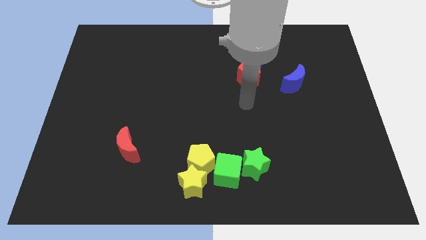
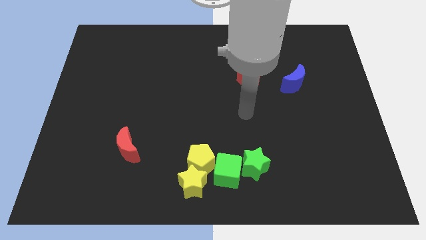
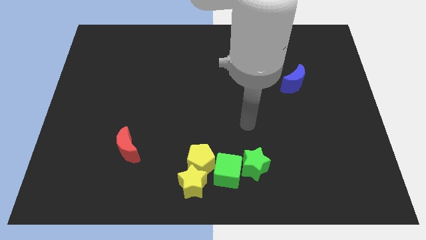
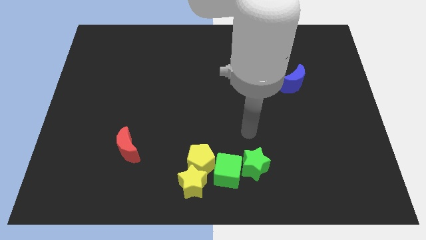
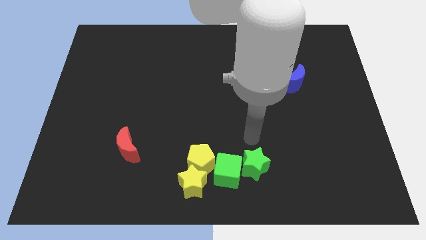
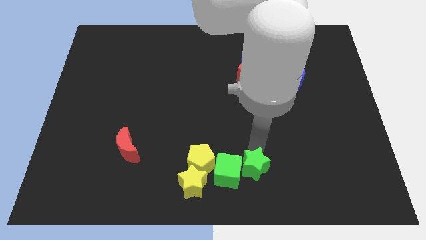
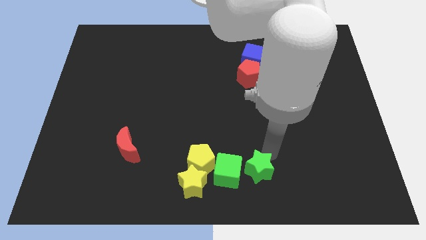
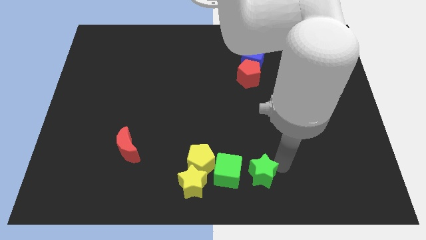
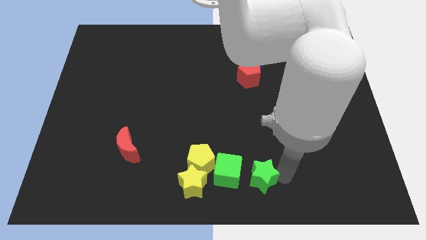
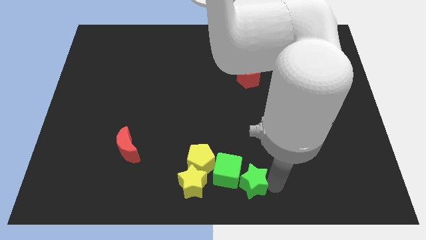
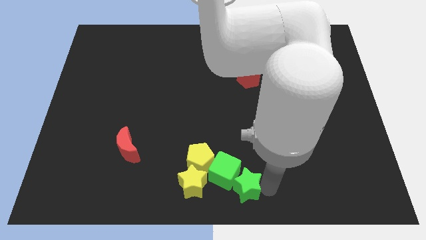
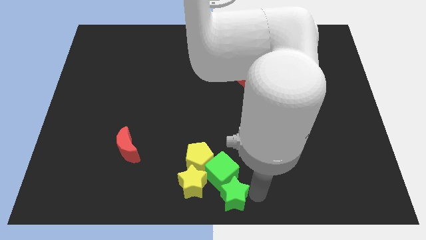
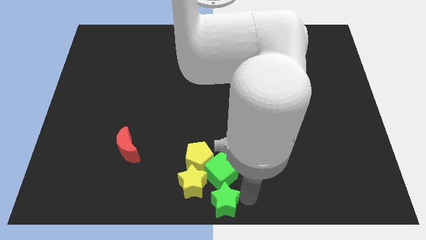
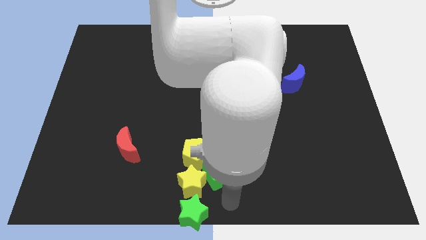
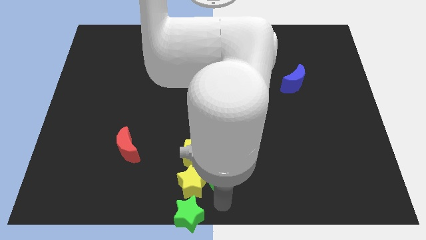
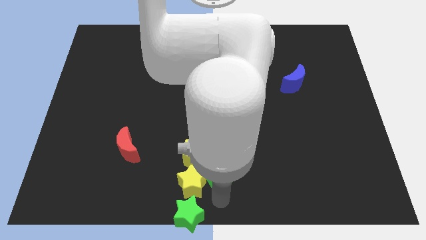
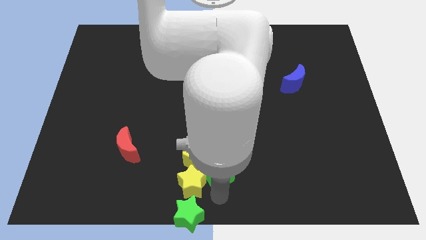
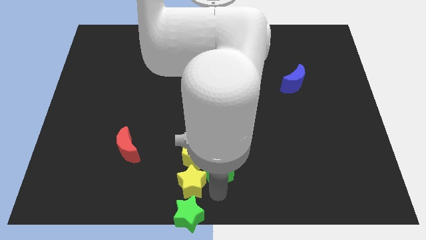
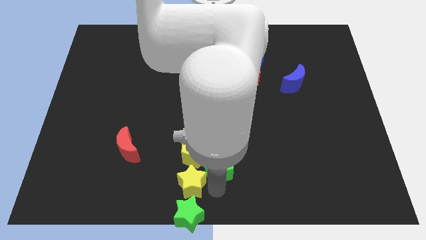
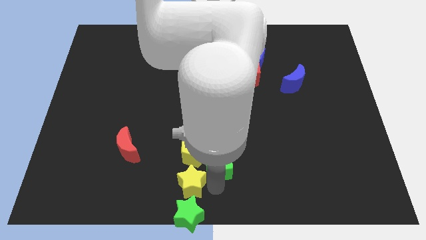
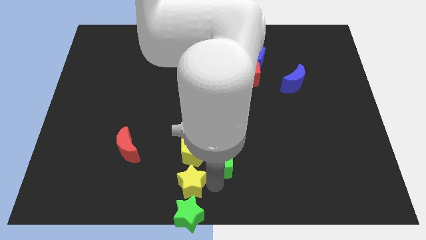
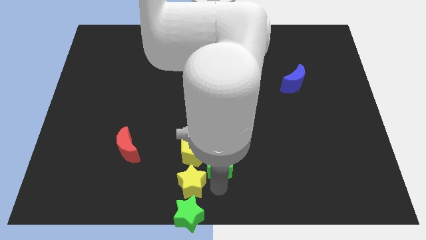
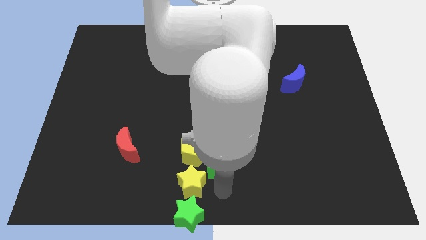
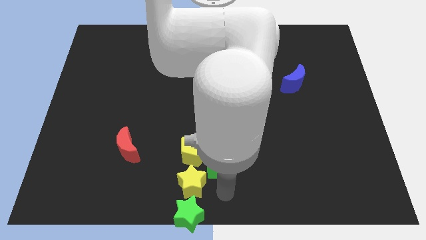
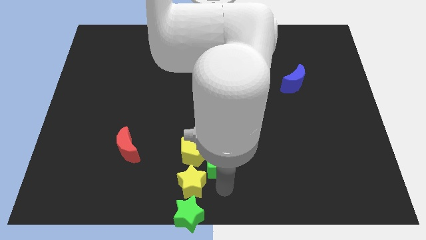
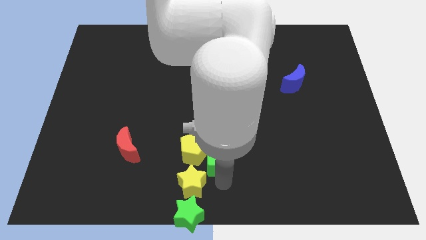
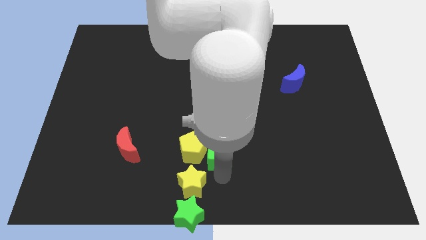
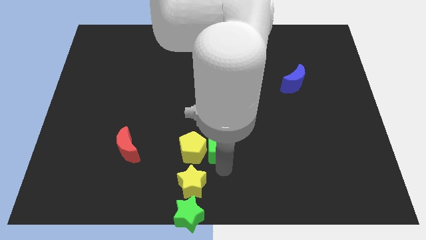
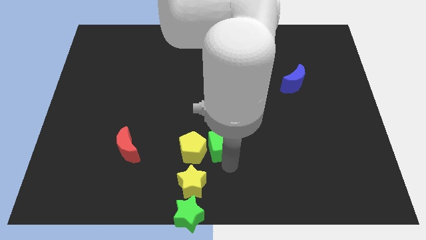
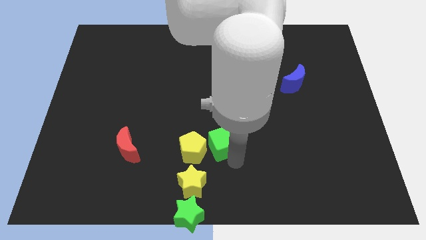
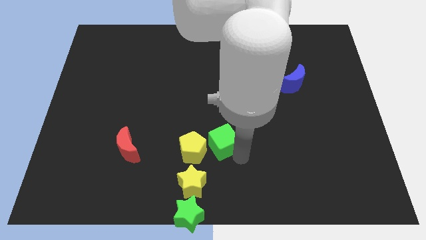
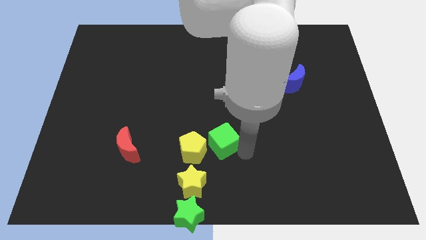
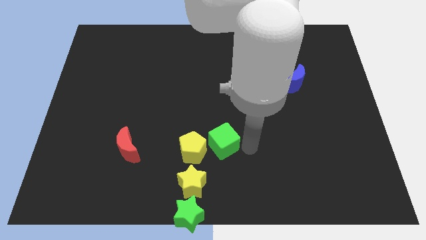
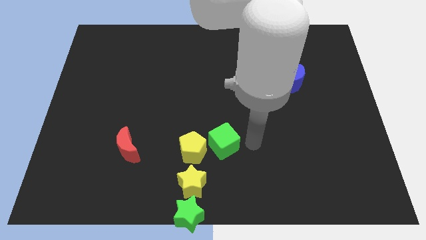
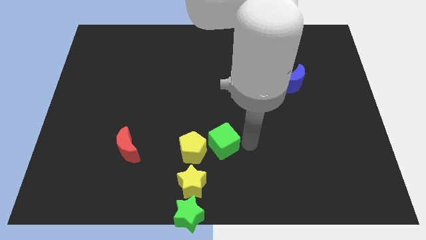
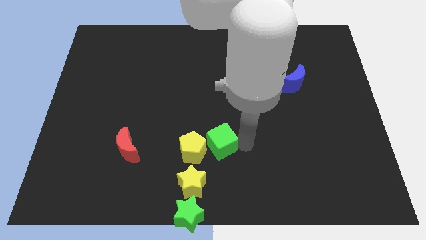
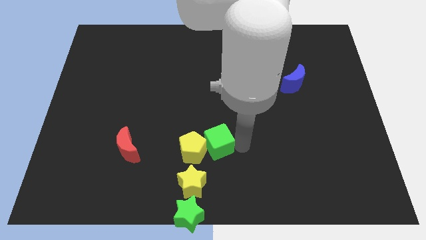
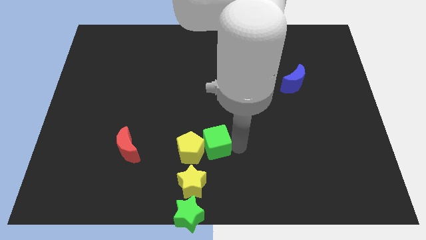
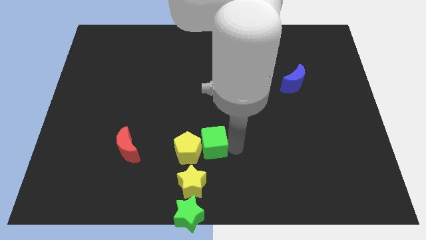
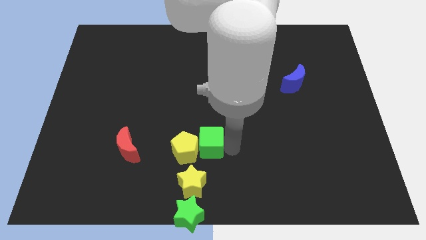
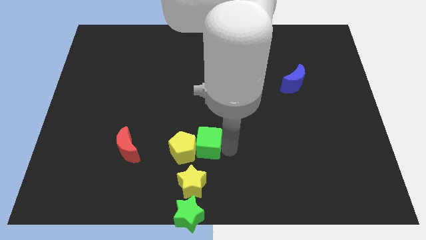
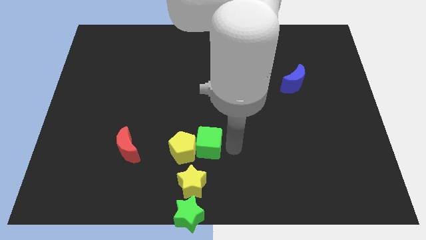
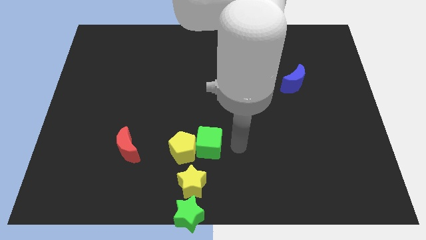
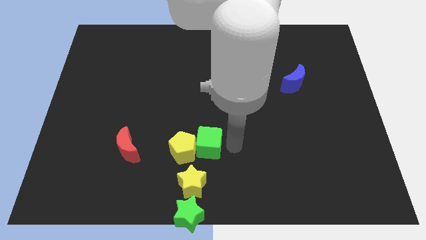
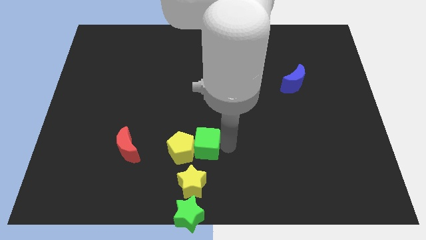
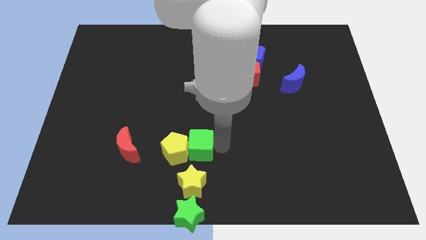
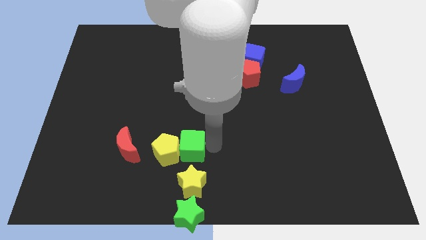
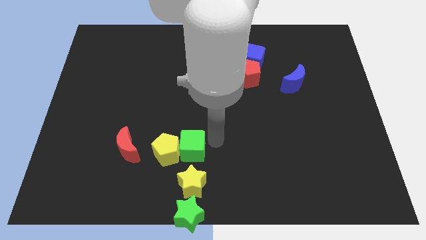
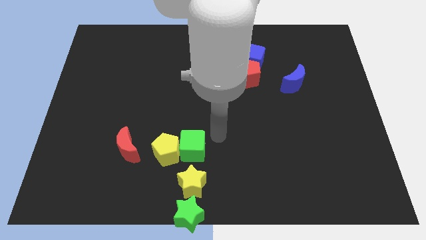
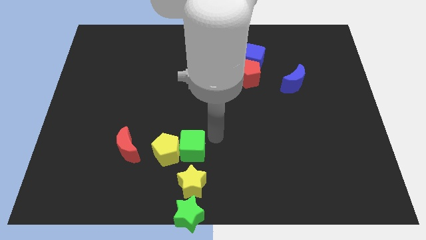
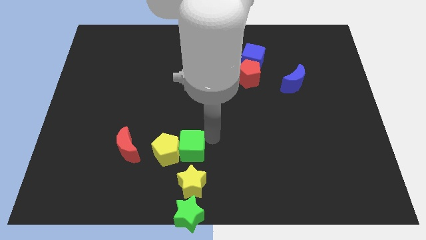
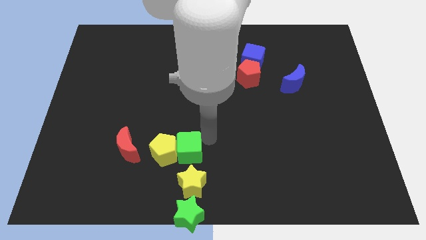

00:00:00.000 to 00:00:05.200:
slide the green cube diagonally up and to the left of the yellow star

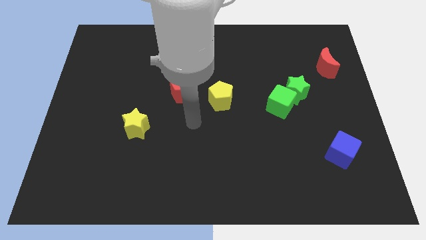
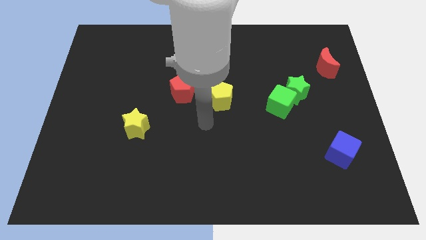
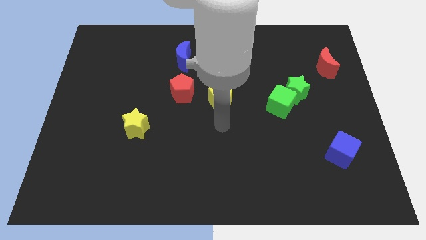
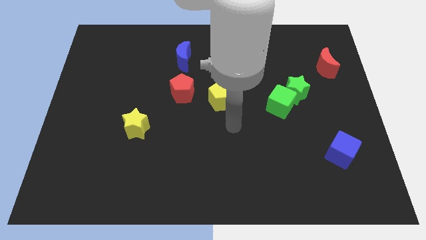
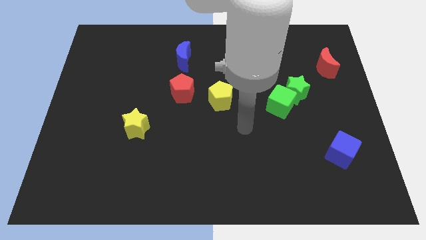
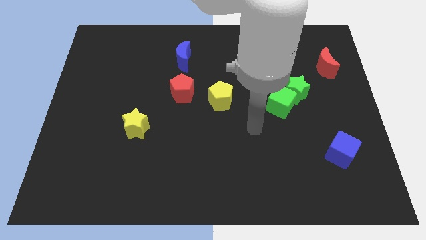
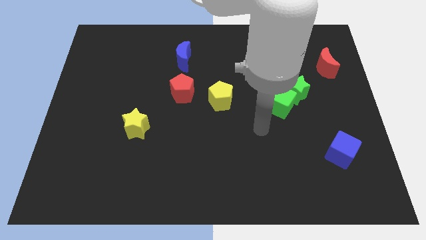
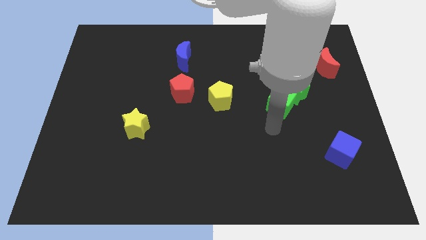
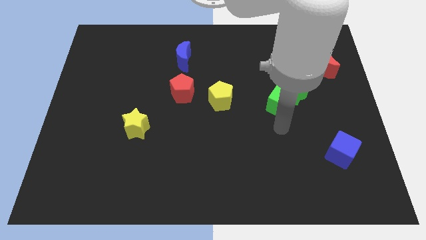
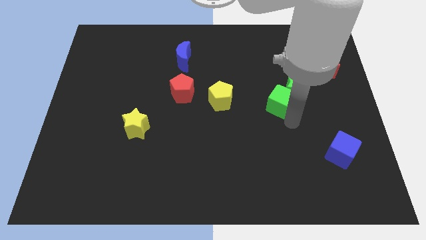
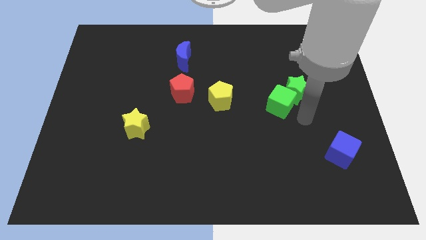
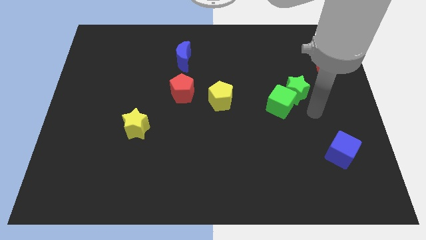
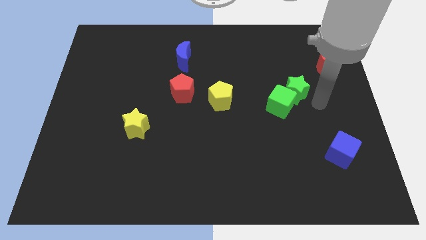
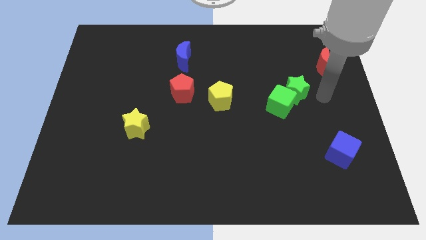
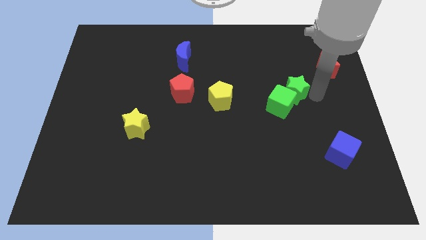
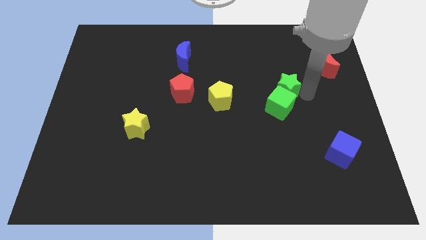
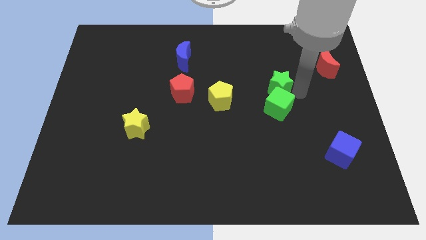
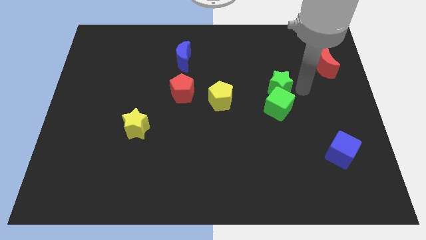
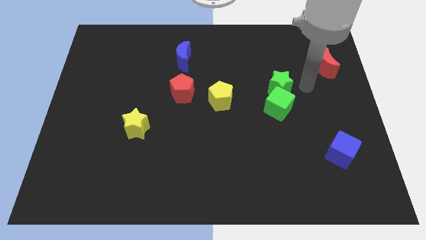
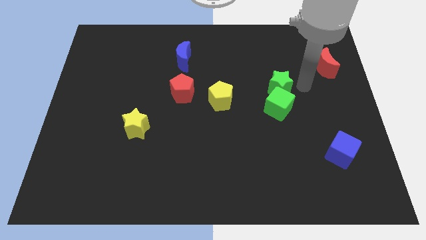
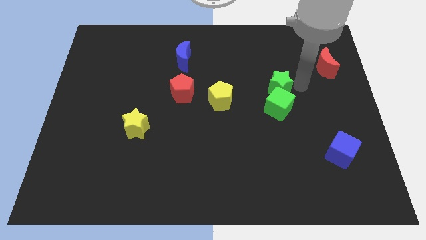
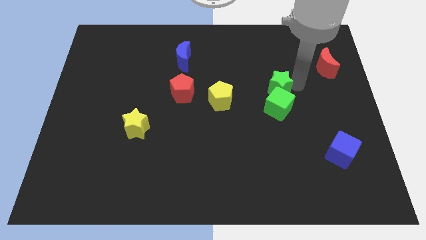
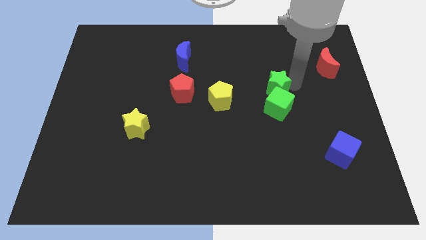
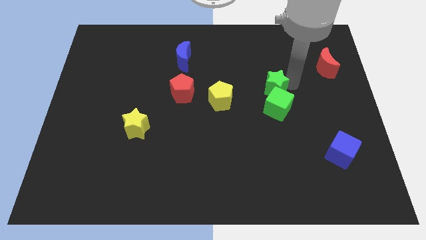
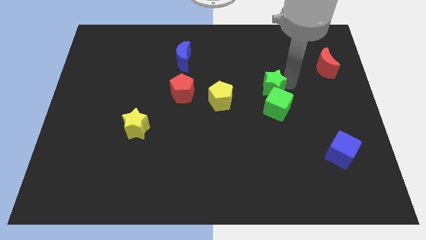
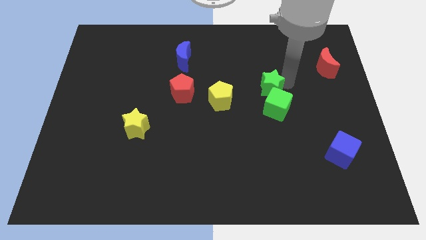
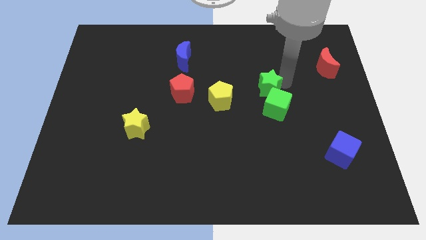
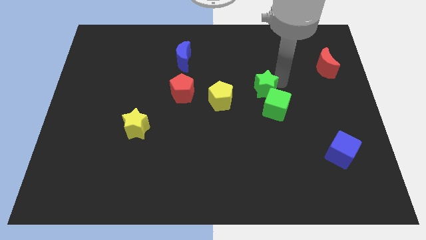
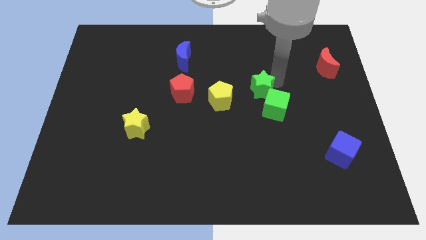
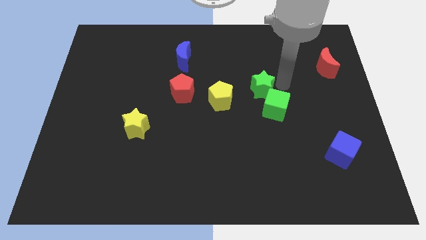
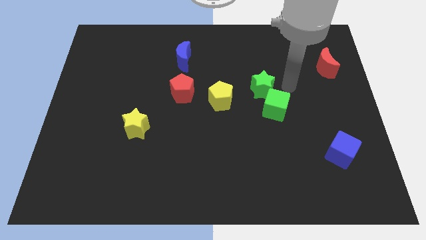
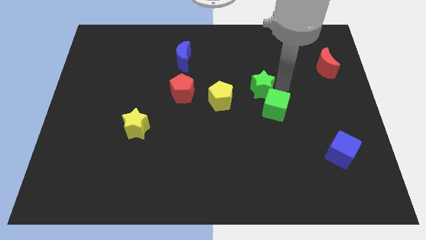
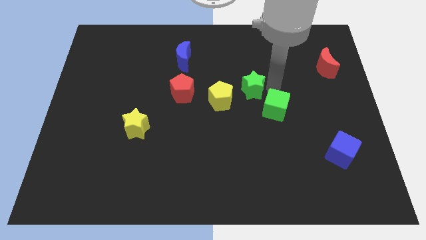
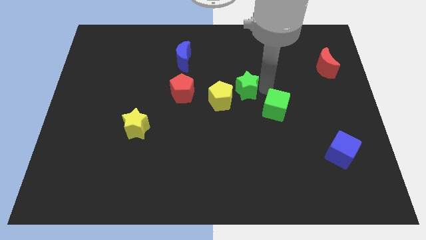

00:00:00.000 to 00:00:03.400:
push the green star to the right of the red pentagon
